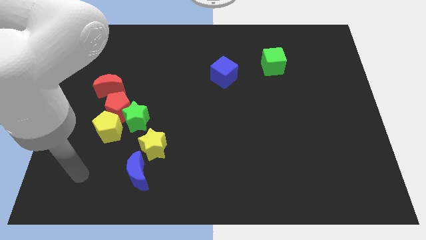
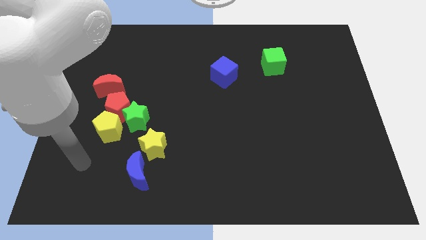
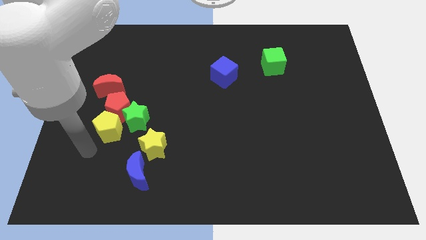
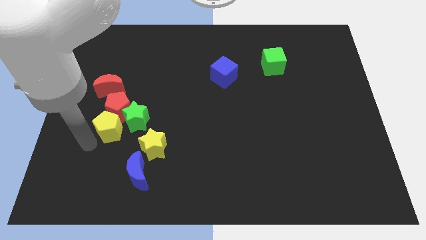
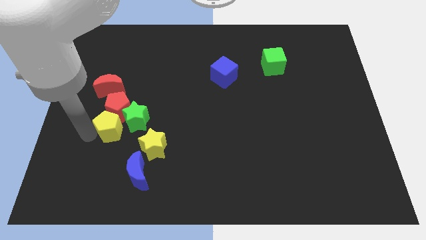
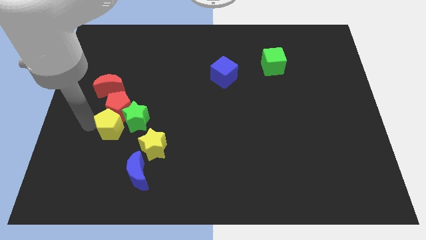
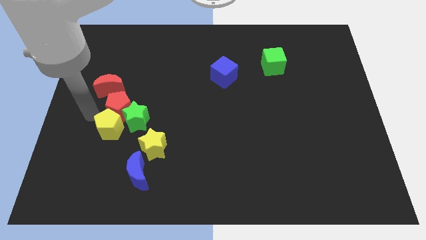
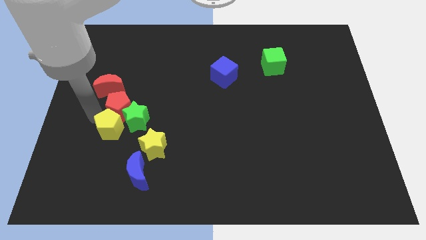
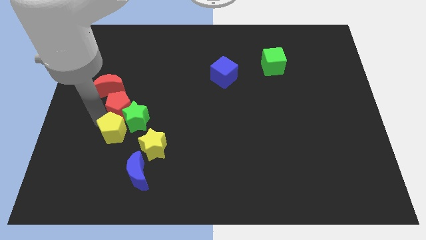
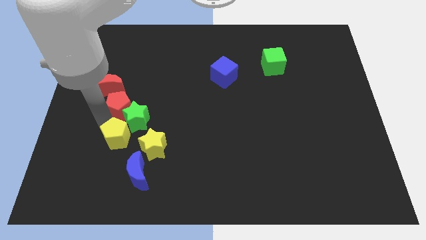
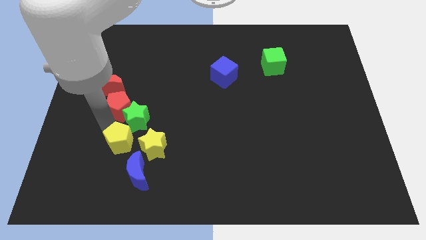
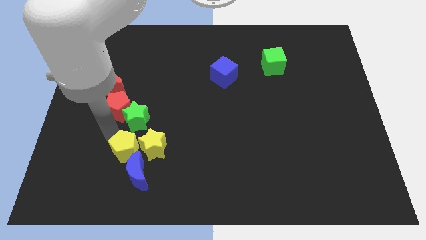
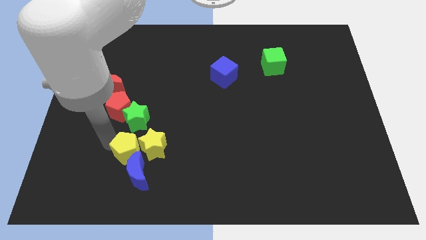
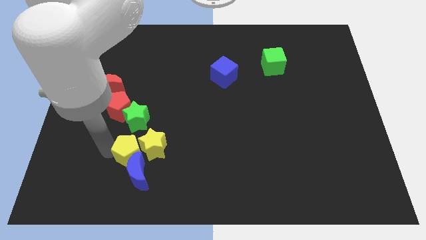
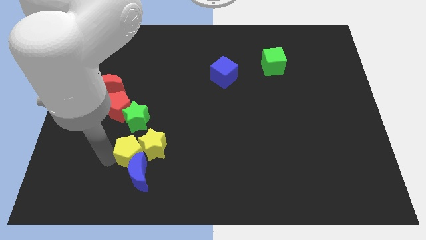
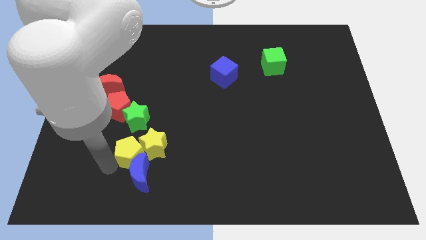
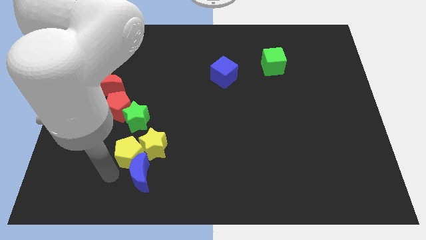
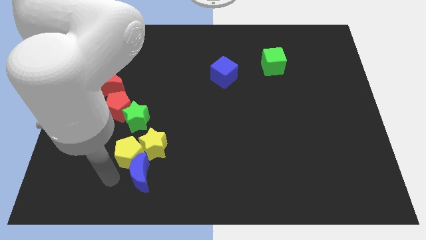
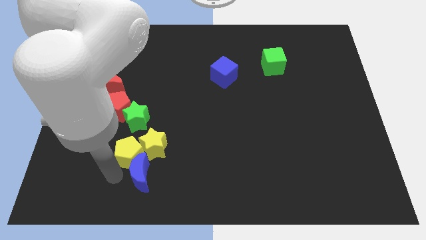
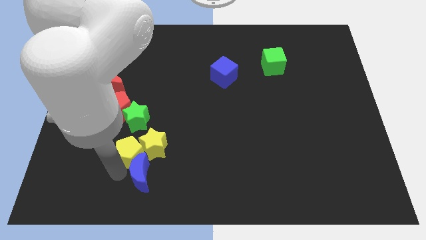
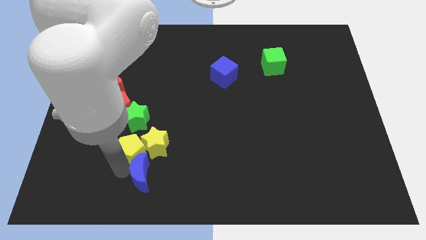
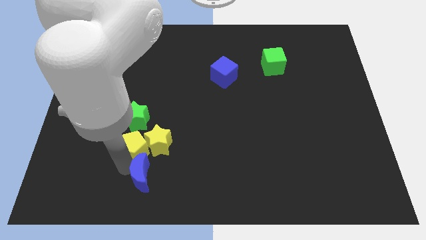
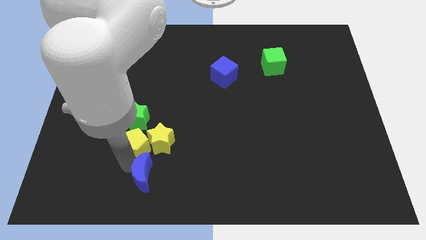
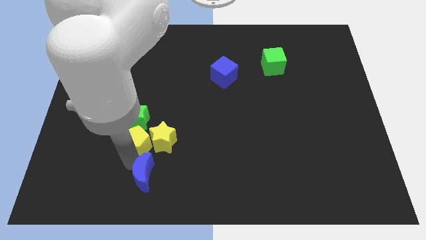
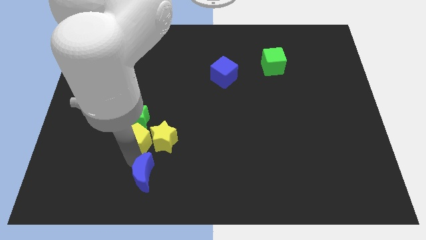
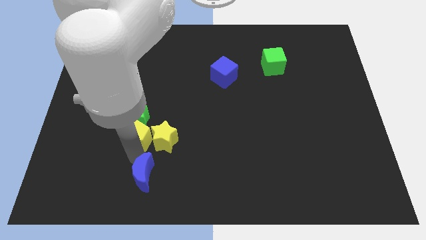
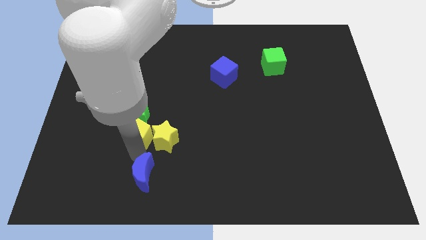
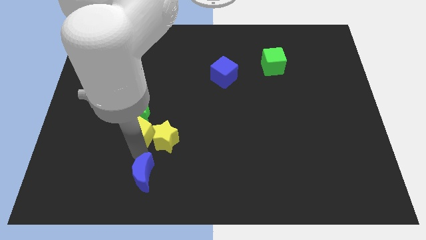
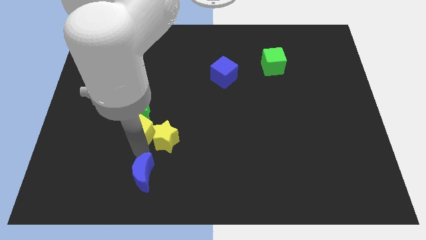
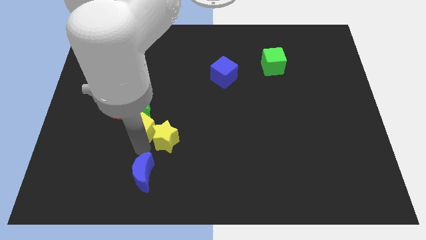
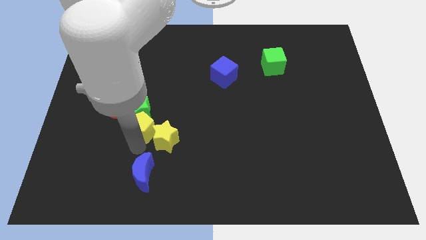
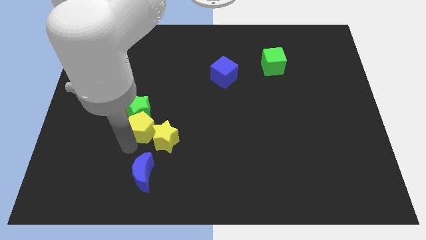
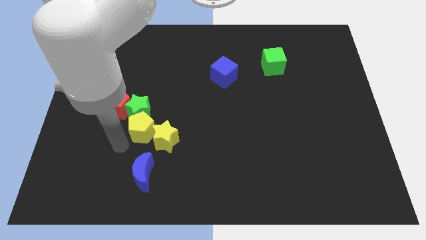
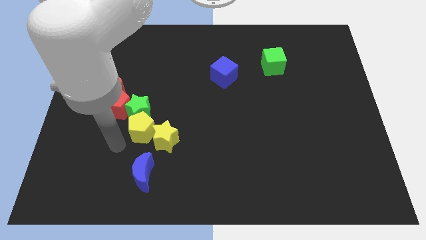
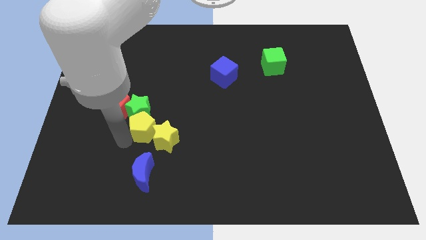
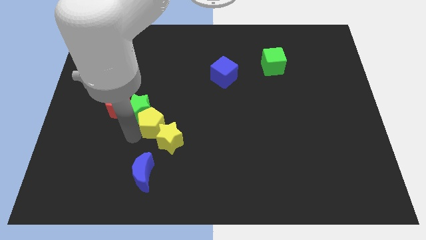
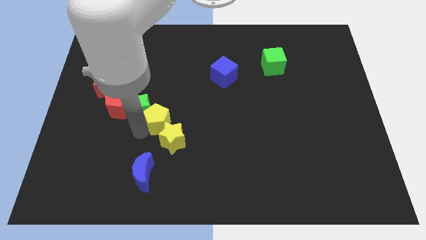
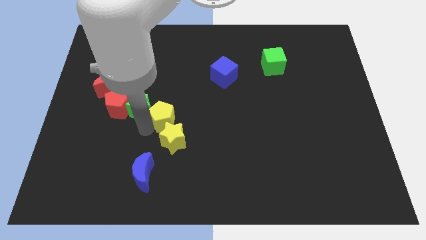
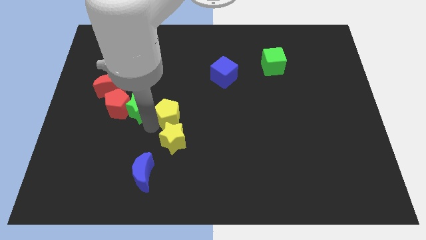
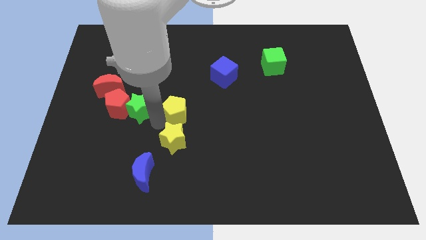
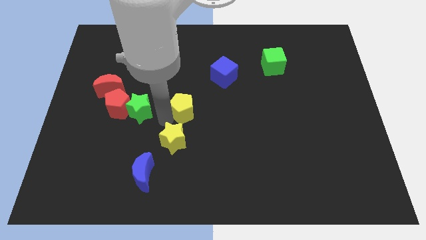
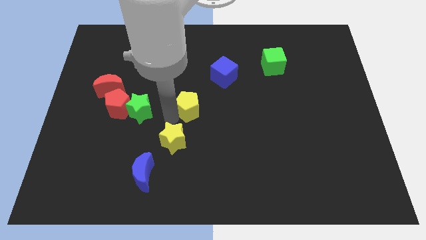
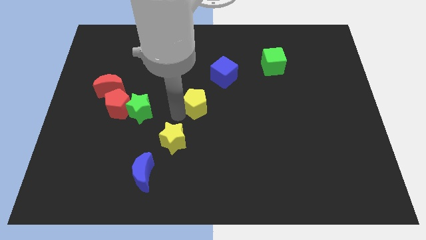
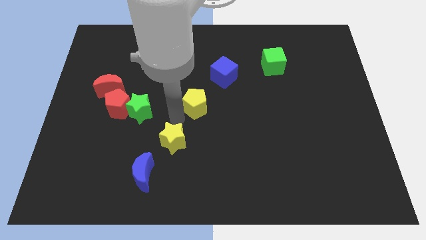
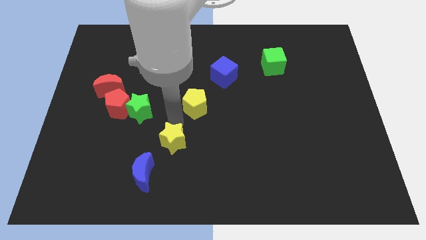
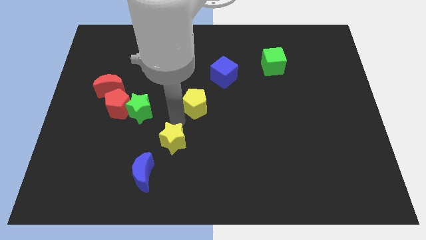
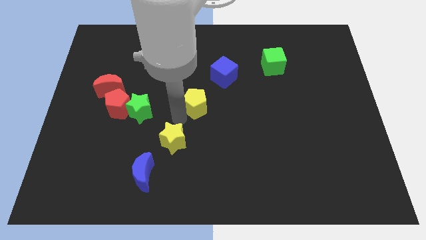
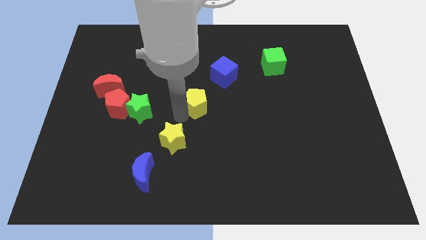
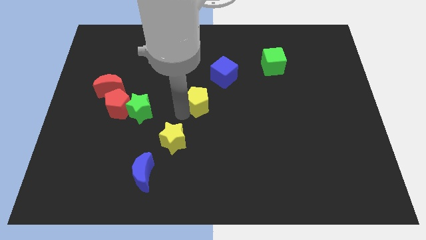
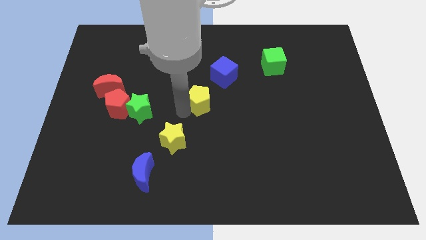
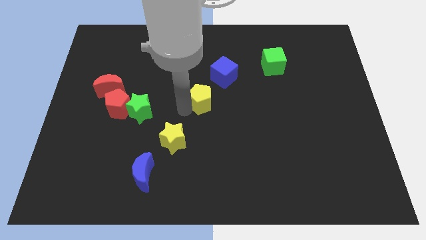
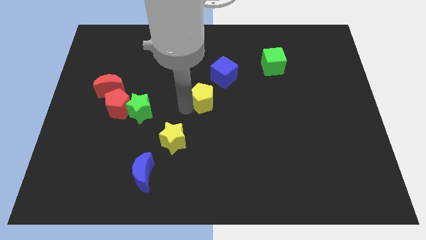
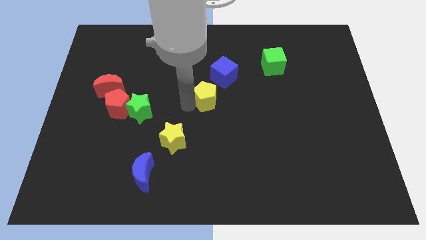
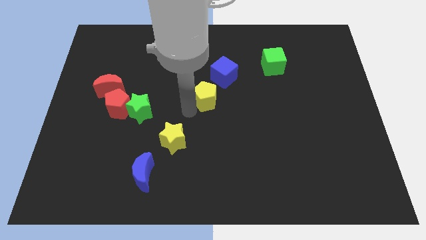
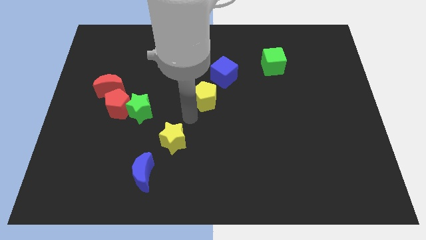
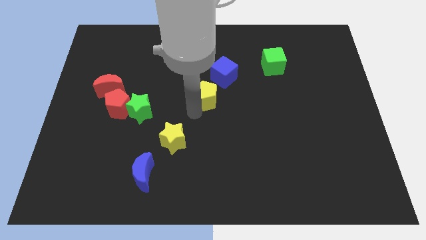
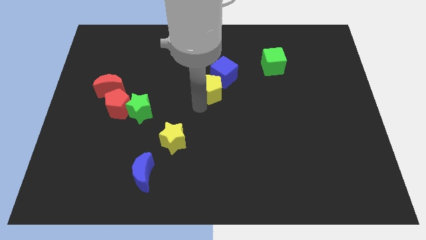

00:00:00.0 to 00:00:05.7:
put the yellow pentagon towards the blue cube

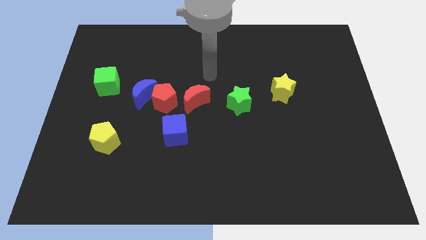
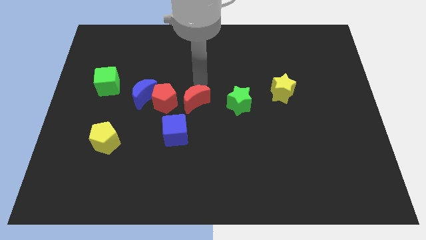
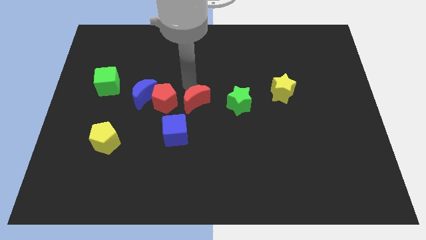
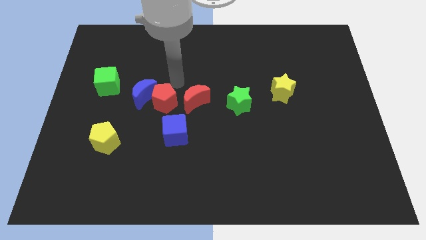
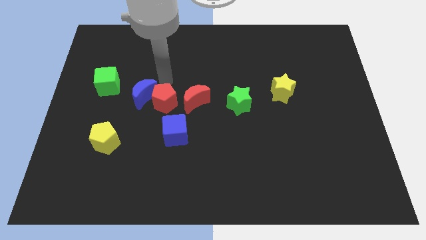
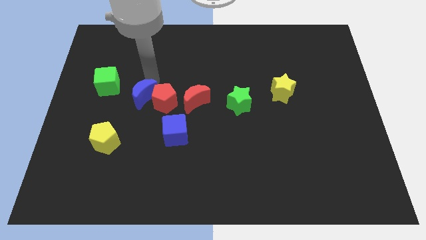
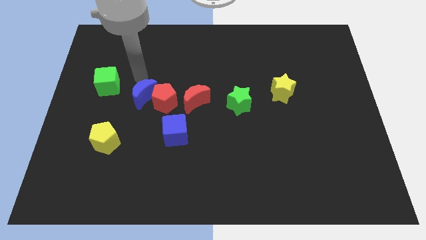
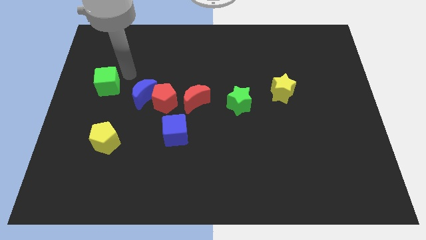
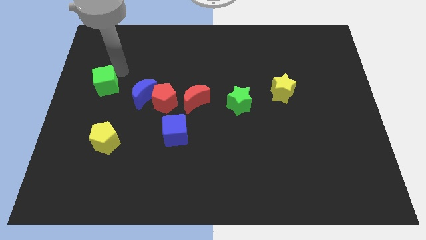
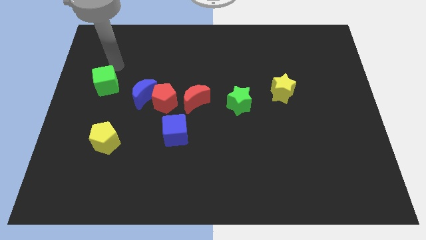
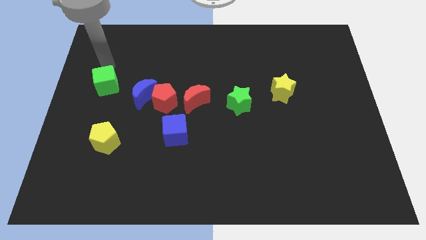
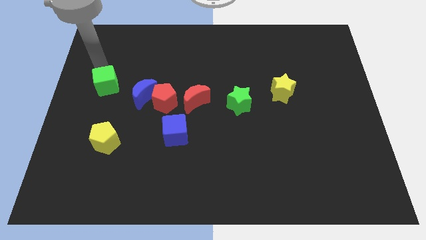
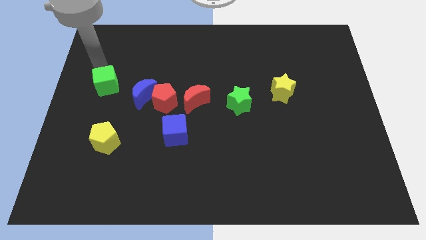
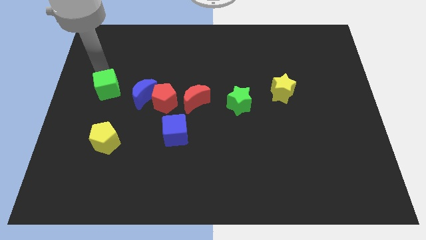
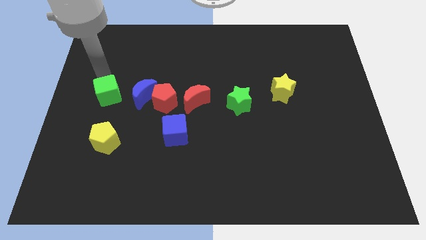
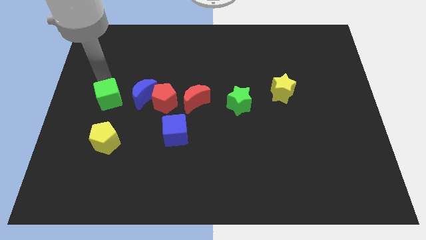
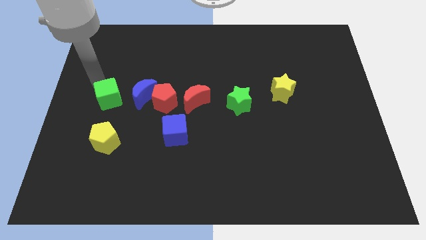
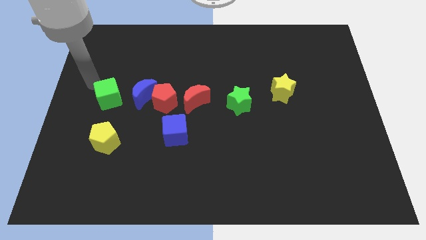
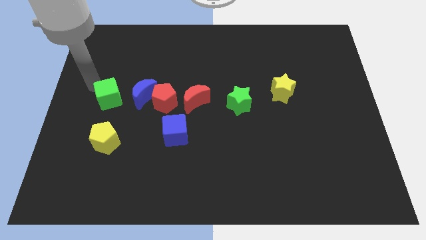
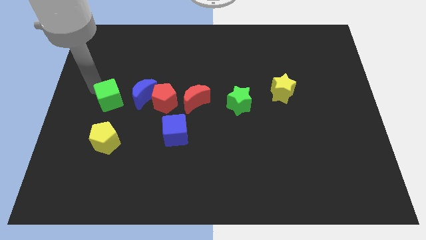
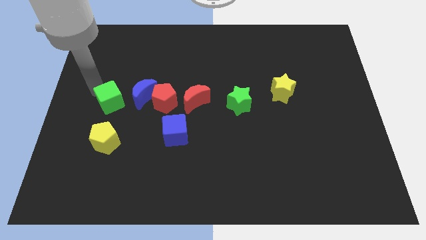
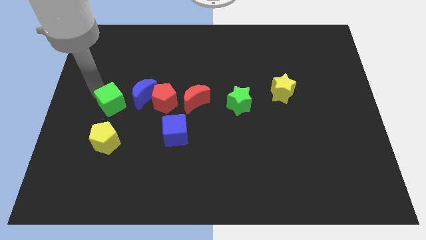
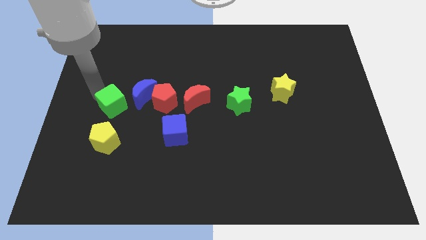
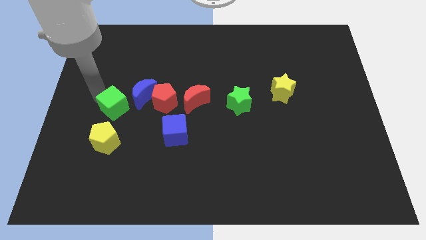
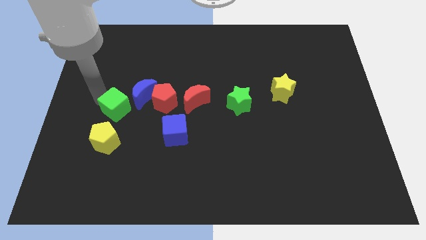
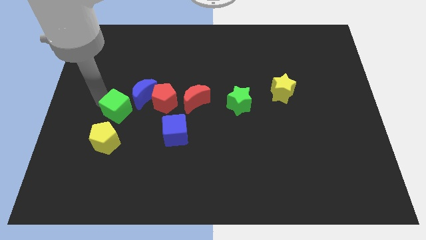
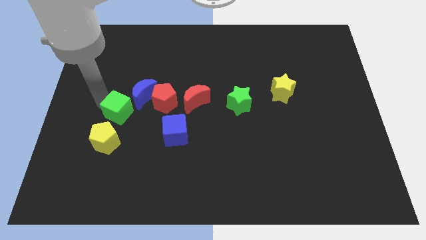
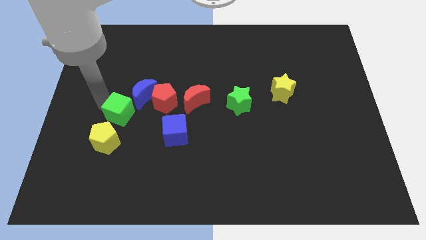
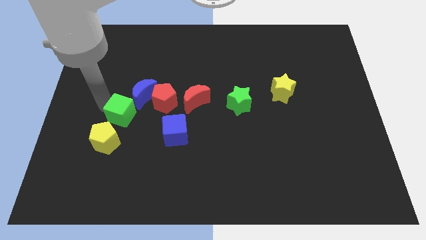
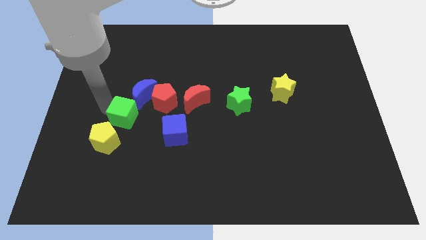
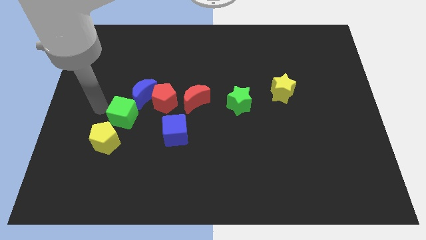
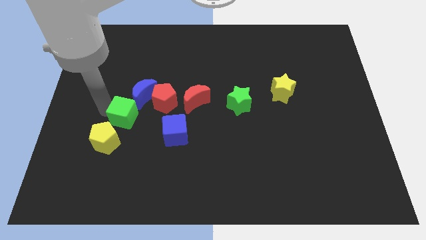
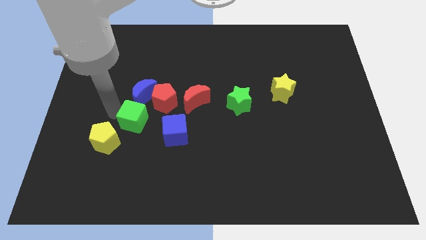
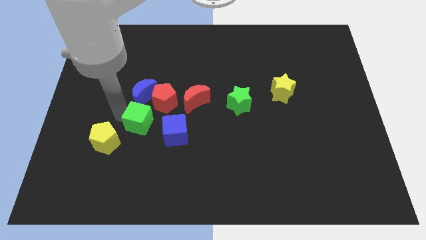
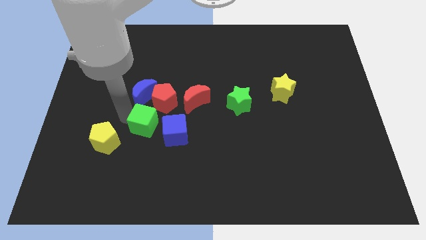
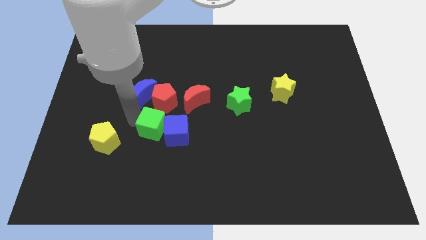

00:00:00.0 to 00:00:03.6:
push the green cube to the blue cube
